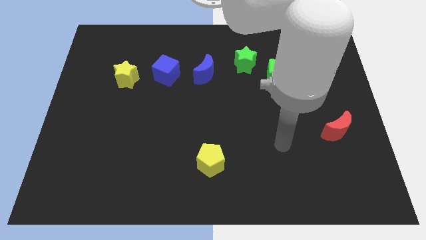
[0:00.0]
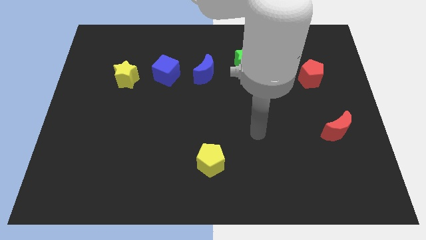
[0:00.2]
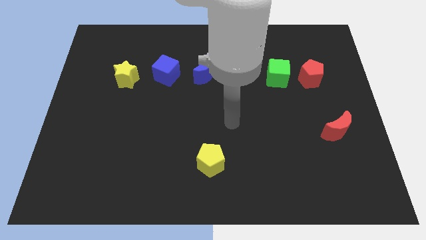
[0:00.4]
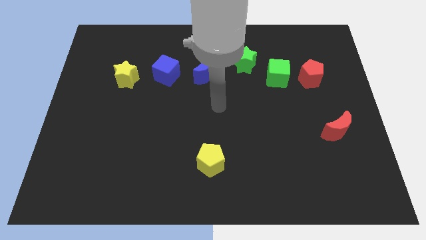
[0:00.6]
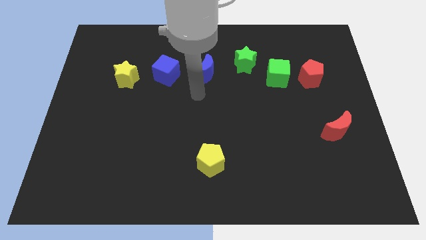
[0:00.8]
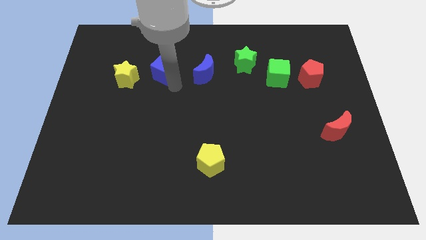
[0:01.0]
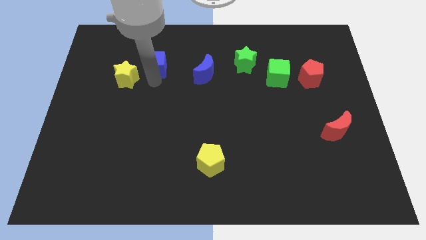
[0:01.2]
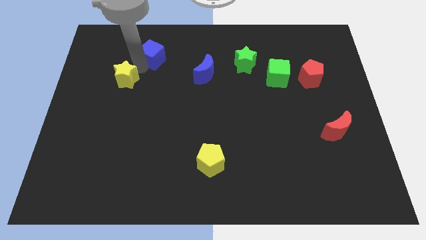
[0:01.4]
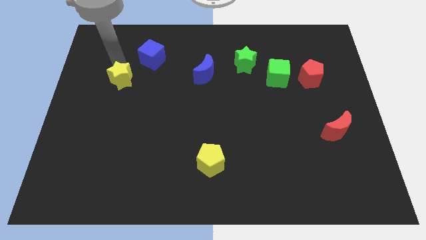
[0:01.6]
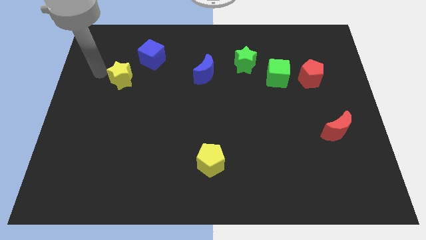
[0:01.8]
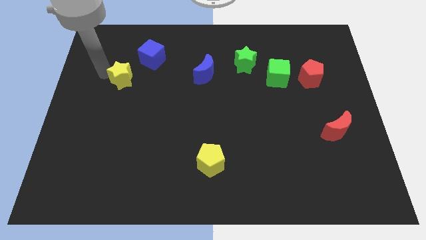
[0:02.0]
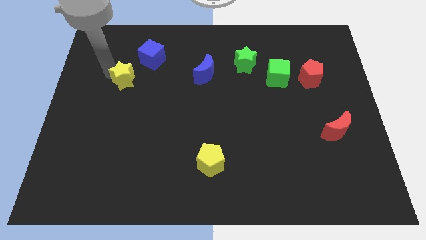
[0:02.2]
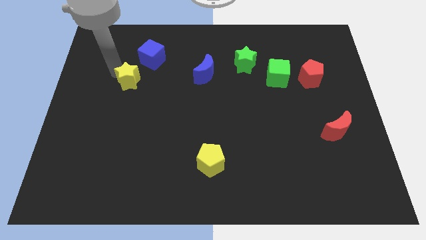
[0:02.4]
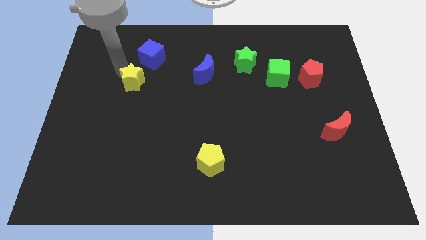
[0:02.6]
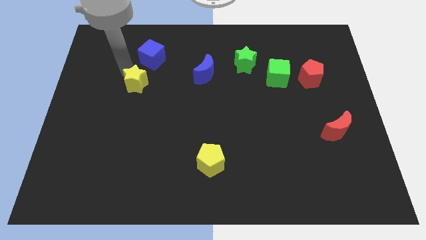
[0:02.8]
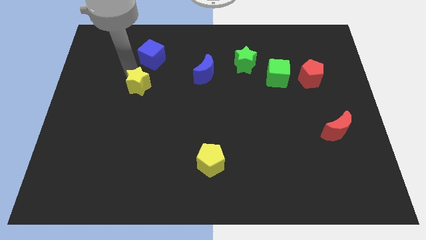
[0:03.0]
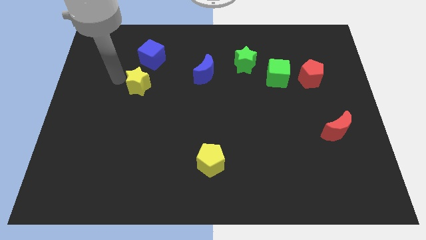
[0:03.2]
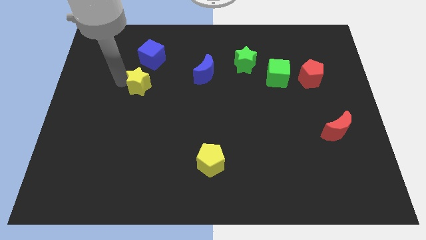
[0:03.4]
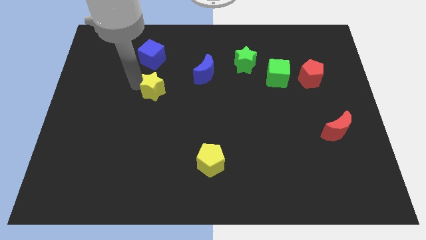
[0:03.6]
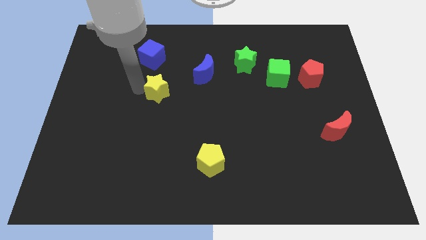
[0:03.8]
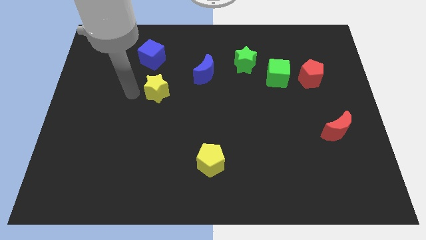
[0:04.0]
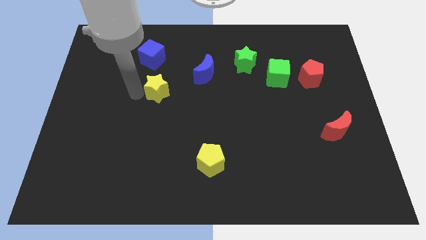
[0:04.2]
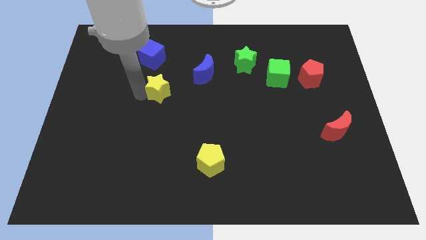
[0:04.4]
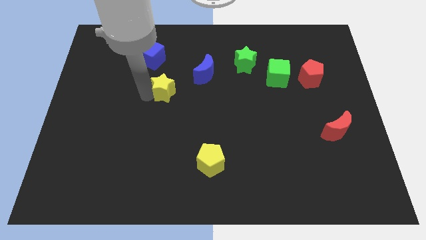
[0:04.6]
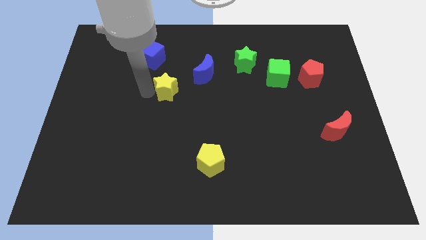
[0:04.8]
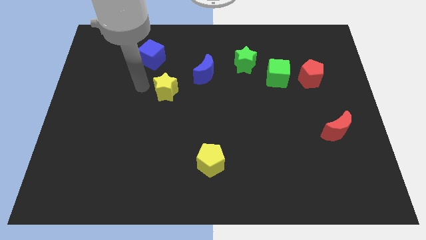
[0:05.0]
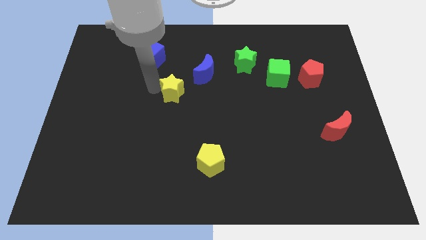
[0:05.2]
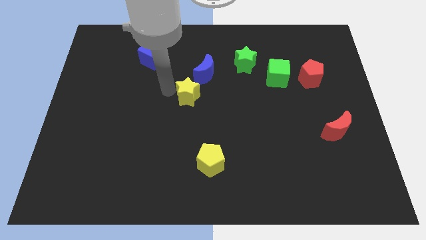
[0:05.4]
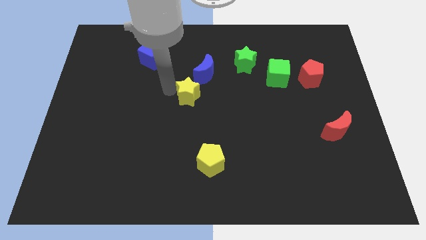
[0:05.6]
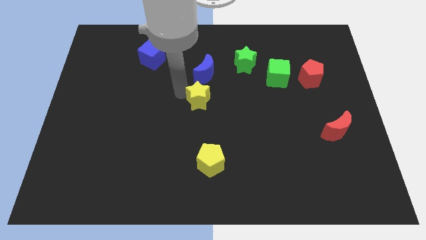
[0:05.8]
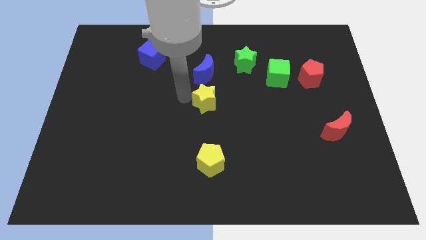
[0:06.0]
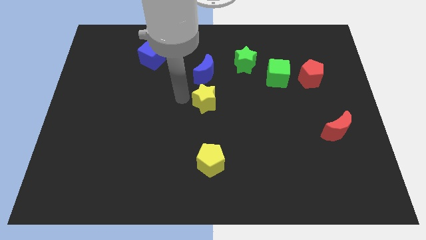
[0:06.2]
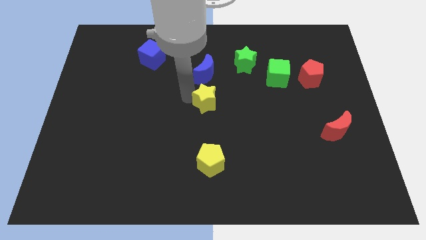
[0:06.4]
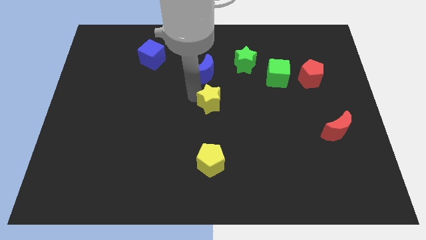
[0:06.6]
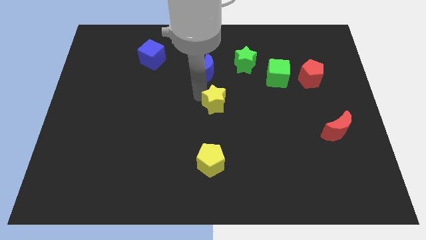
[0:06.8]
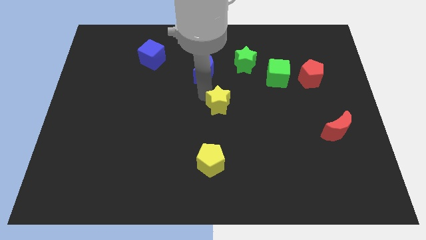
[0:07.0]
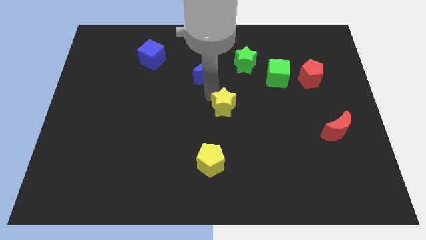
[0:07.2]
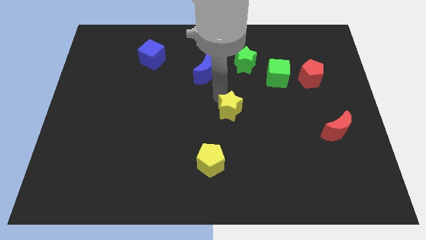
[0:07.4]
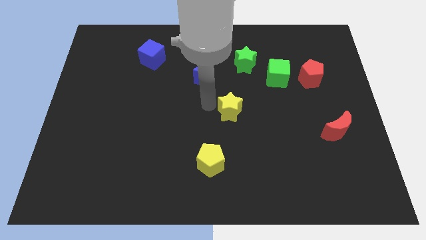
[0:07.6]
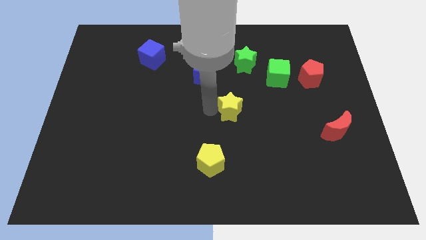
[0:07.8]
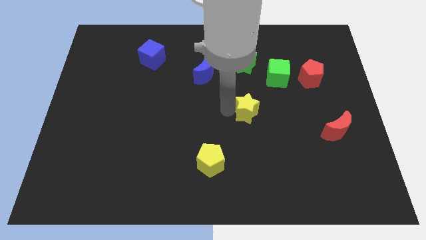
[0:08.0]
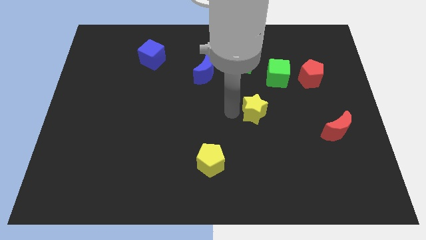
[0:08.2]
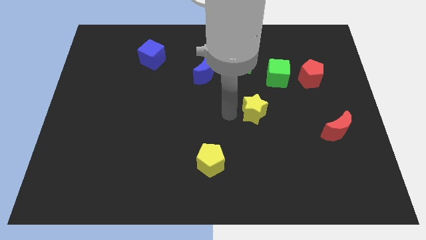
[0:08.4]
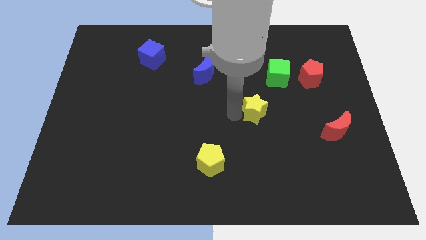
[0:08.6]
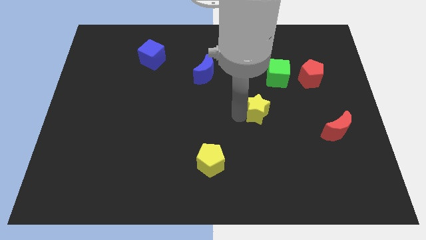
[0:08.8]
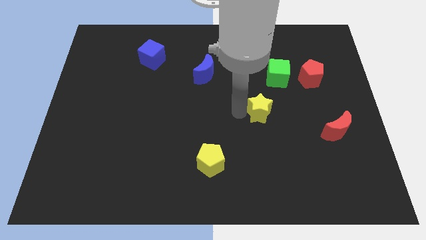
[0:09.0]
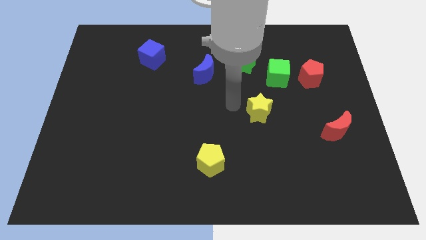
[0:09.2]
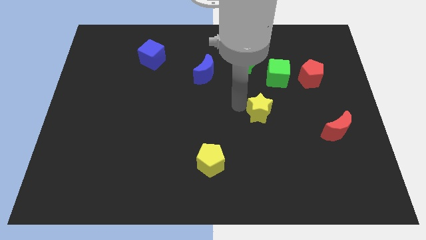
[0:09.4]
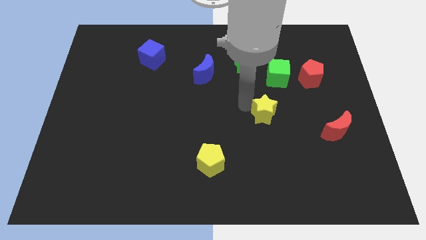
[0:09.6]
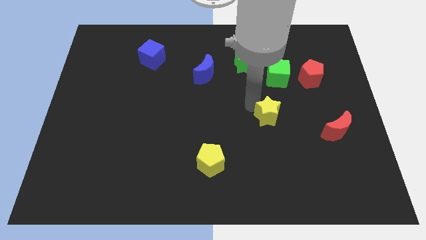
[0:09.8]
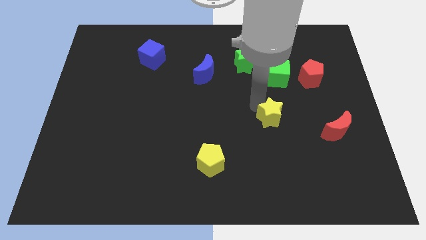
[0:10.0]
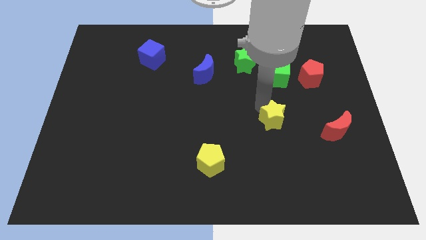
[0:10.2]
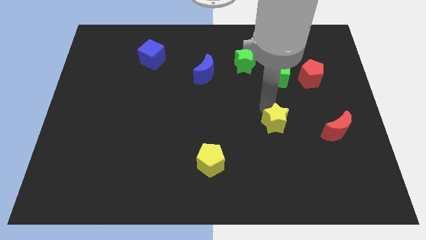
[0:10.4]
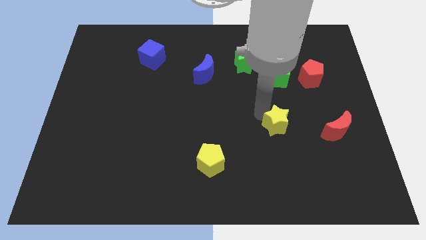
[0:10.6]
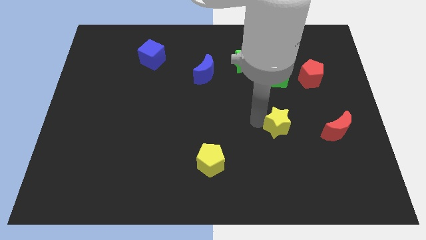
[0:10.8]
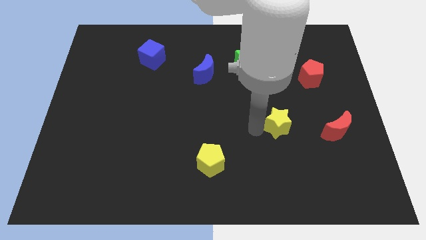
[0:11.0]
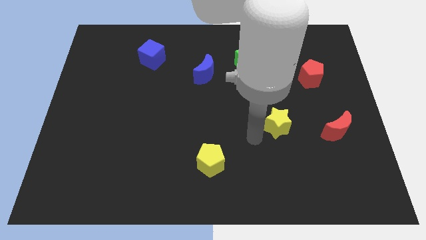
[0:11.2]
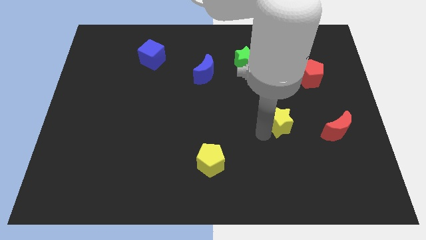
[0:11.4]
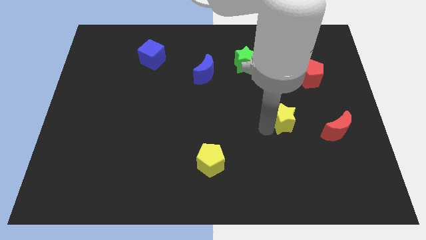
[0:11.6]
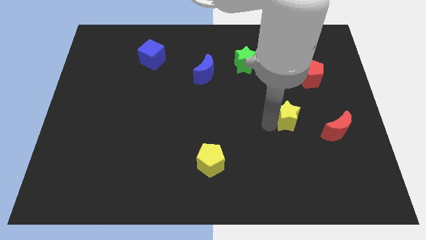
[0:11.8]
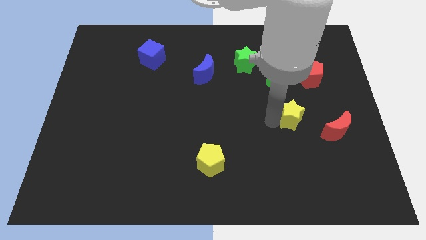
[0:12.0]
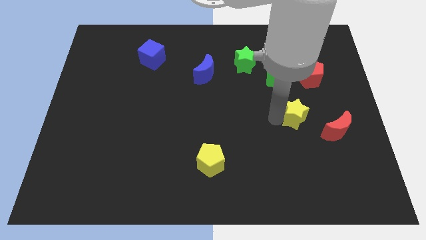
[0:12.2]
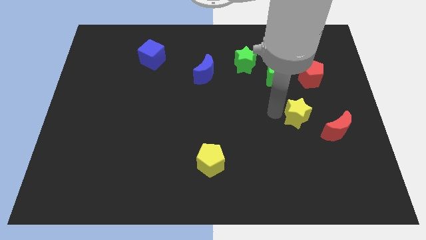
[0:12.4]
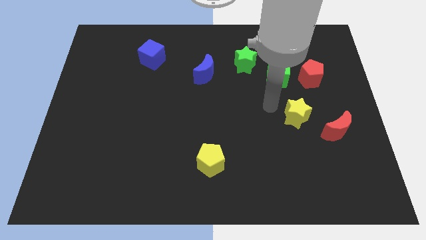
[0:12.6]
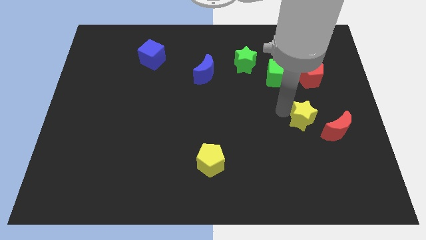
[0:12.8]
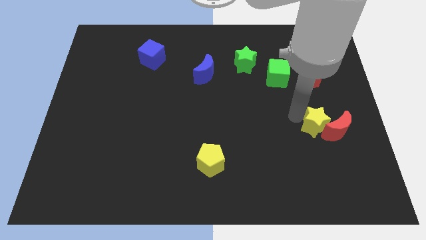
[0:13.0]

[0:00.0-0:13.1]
slide the yellow star to the red moon
